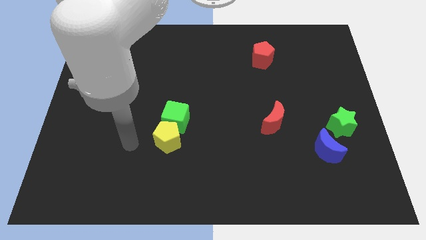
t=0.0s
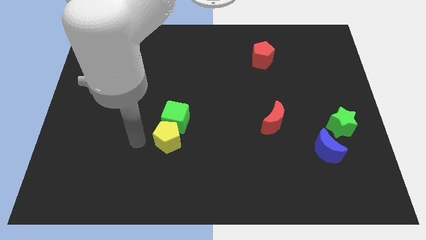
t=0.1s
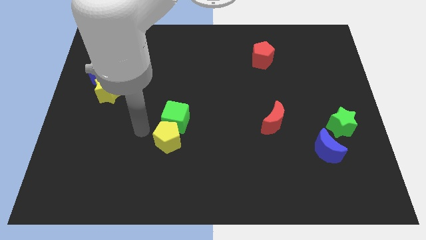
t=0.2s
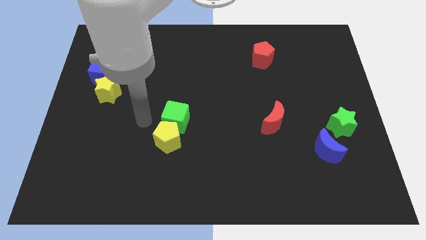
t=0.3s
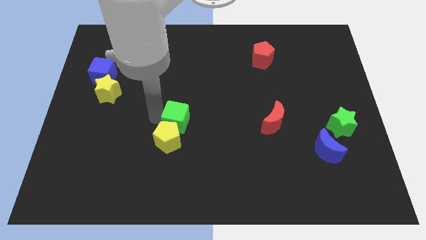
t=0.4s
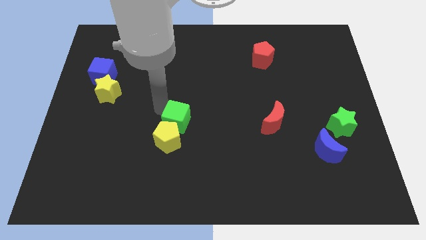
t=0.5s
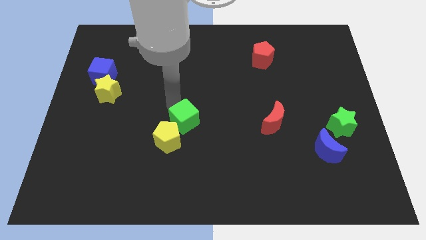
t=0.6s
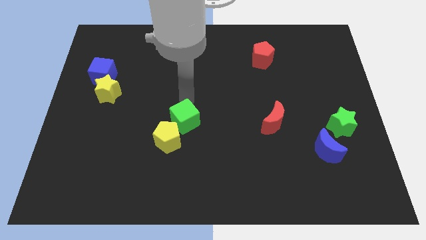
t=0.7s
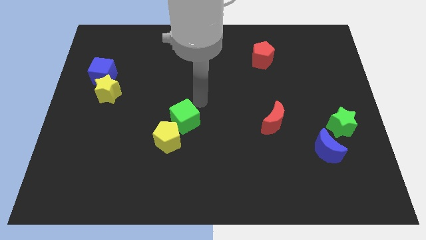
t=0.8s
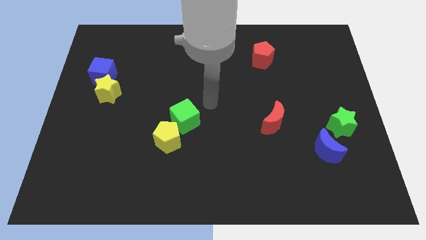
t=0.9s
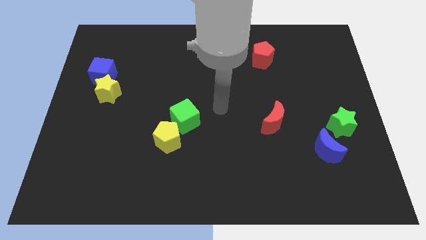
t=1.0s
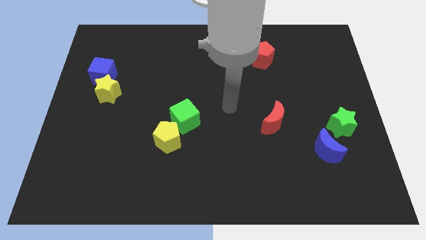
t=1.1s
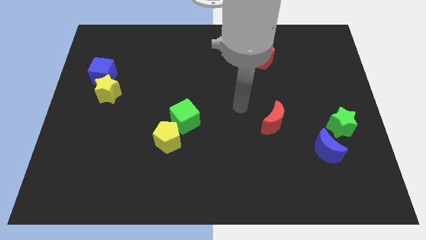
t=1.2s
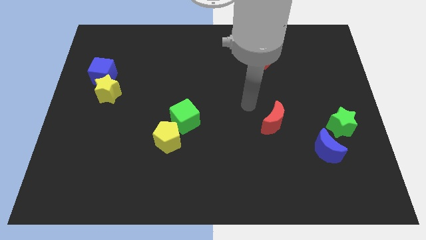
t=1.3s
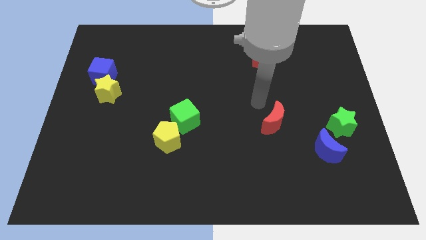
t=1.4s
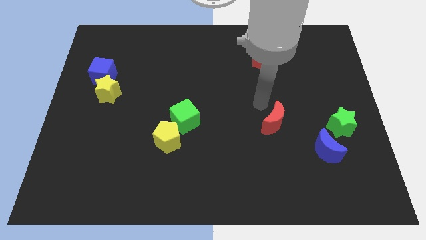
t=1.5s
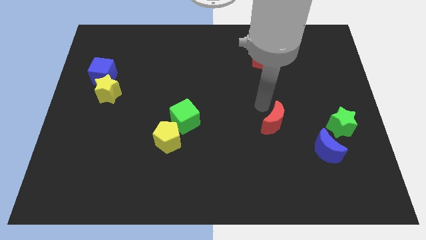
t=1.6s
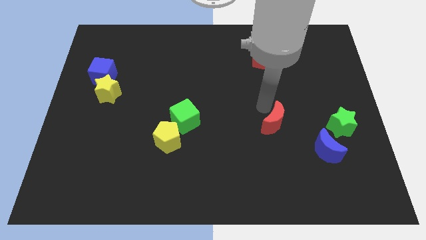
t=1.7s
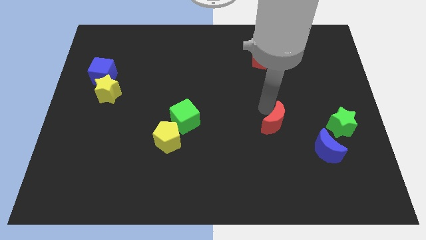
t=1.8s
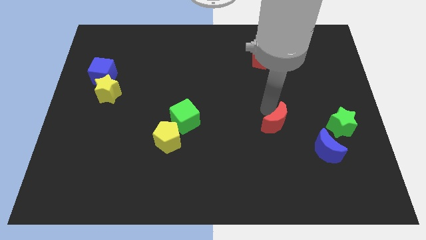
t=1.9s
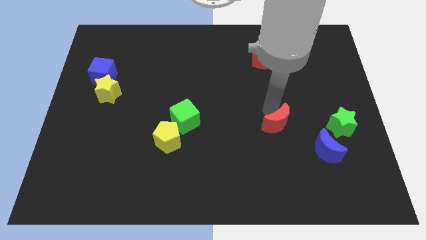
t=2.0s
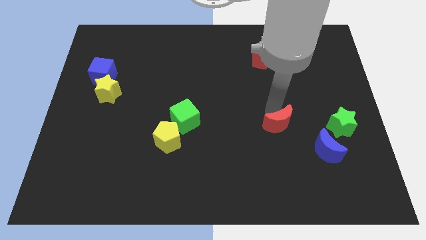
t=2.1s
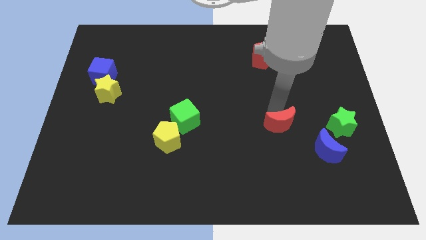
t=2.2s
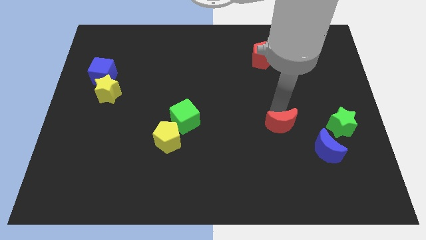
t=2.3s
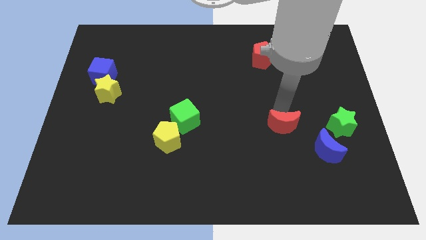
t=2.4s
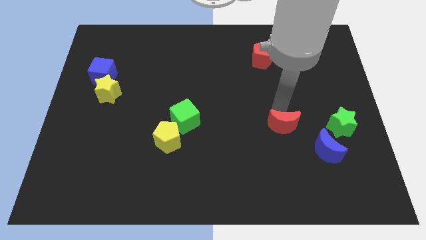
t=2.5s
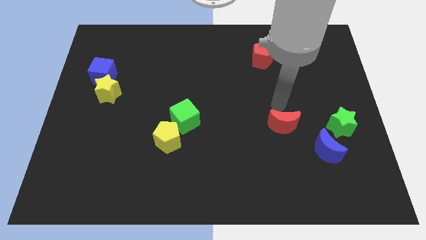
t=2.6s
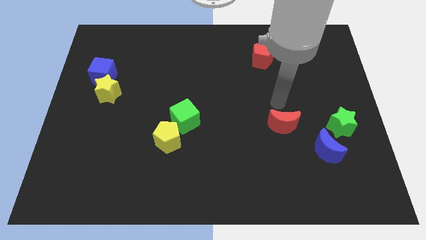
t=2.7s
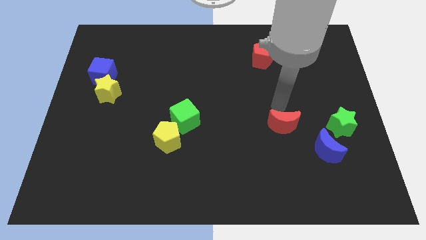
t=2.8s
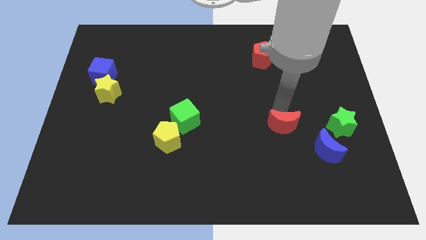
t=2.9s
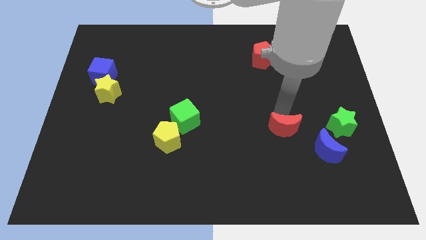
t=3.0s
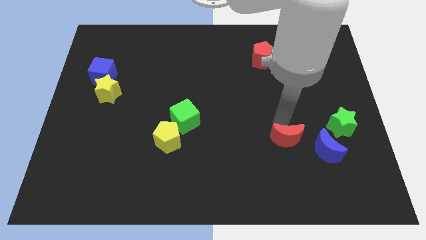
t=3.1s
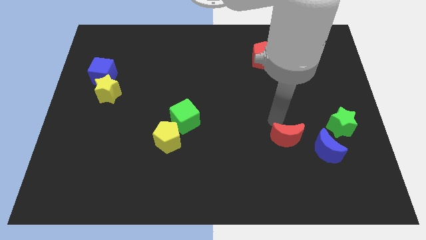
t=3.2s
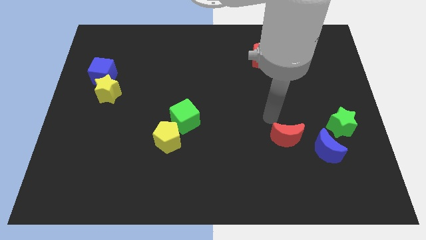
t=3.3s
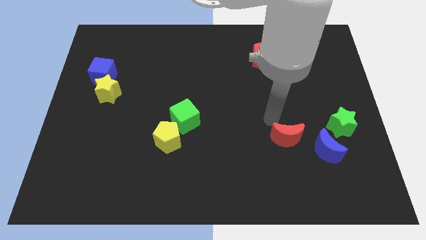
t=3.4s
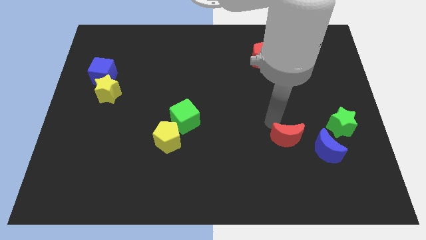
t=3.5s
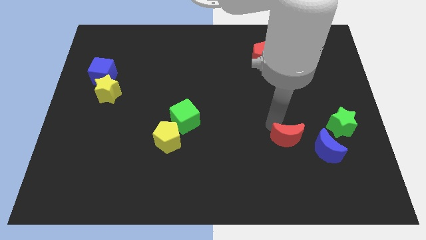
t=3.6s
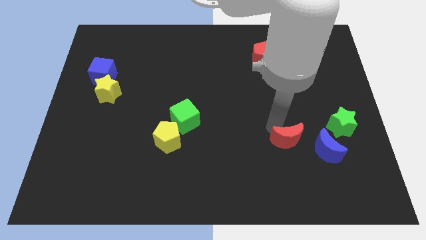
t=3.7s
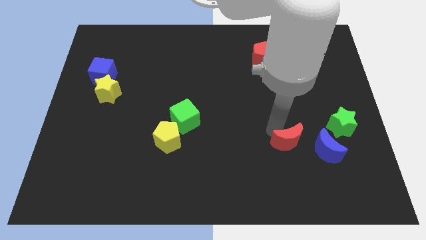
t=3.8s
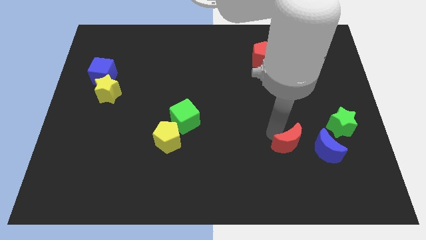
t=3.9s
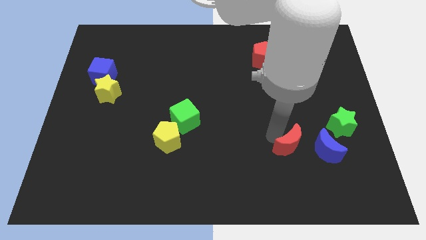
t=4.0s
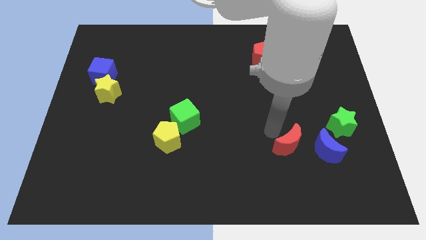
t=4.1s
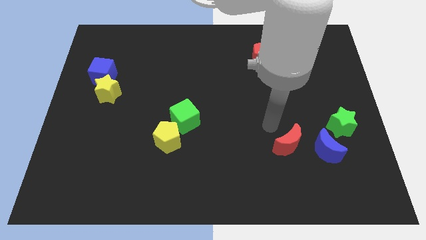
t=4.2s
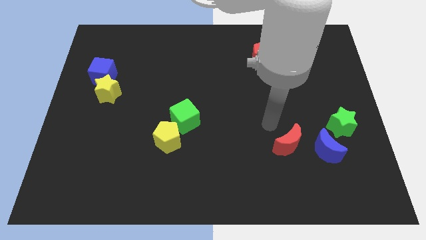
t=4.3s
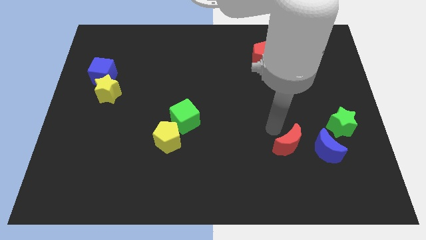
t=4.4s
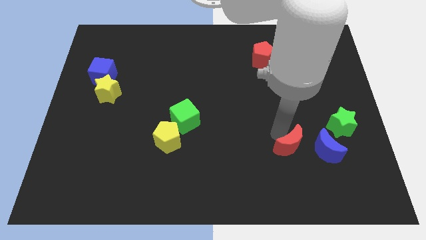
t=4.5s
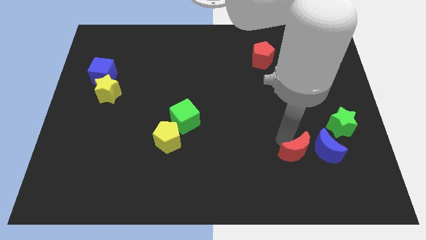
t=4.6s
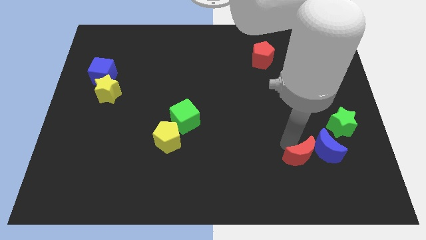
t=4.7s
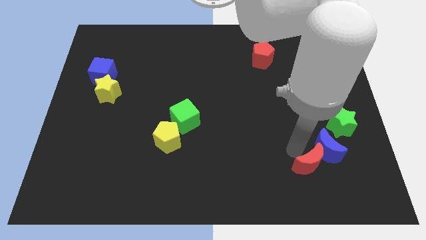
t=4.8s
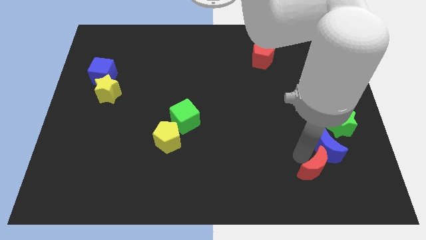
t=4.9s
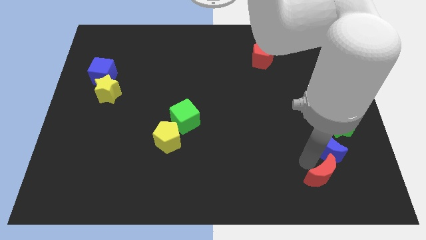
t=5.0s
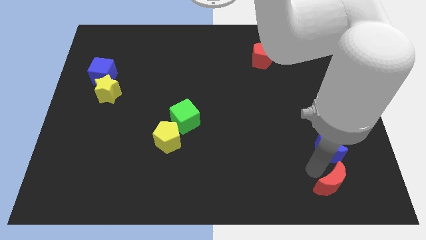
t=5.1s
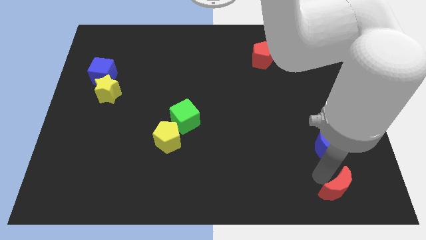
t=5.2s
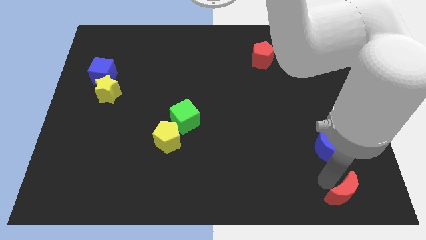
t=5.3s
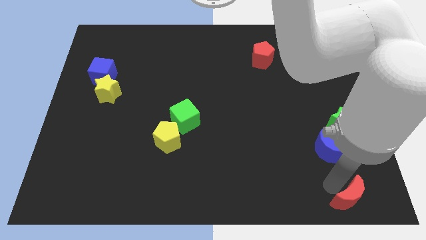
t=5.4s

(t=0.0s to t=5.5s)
slide the red moon to the bottom right

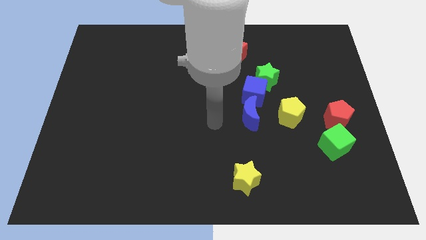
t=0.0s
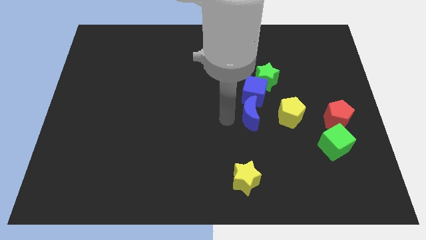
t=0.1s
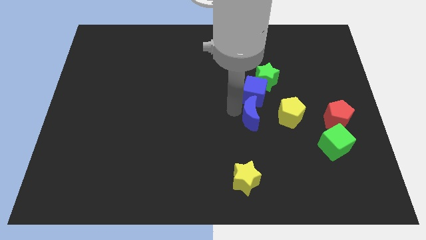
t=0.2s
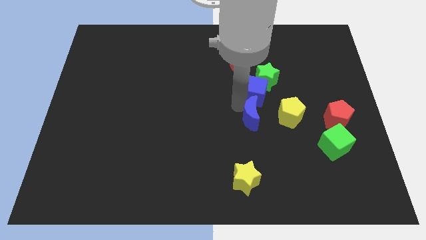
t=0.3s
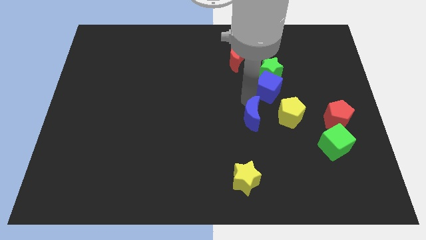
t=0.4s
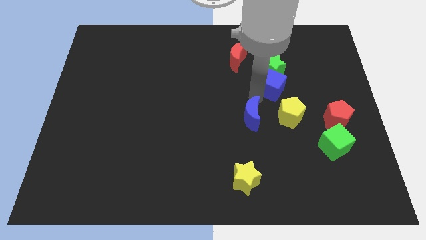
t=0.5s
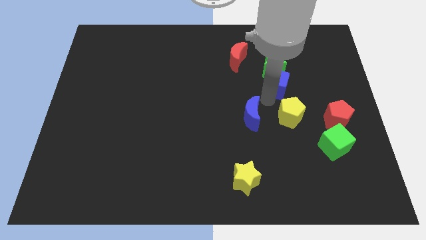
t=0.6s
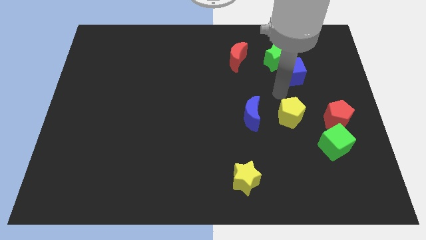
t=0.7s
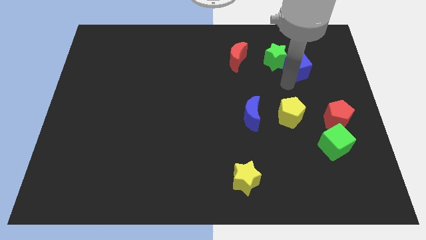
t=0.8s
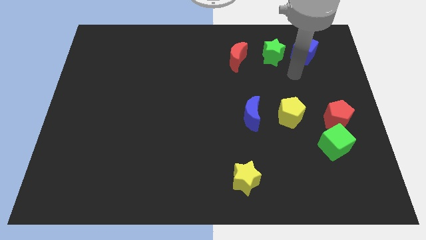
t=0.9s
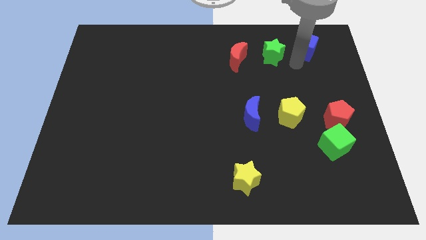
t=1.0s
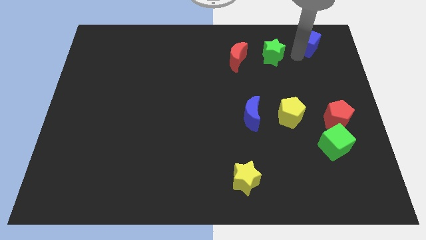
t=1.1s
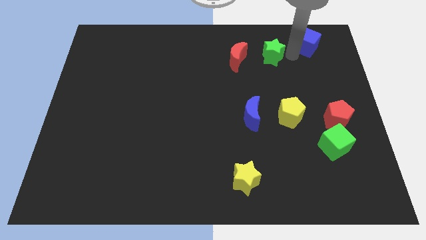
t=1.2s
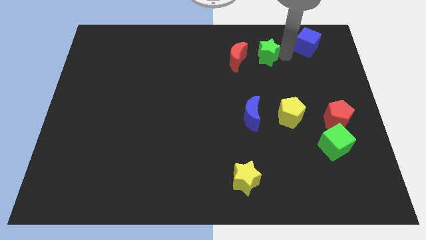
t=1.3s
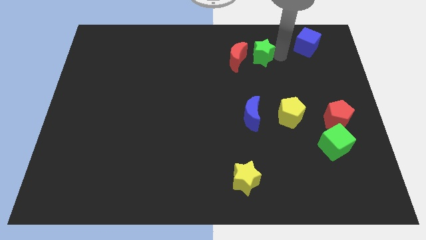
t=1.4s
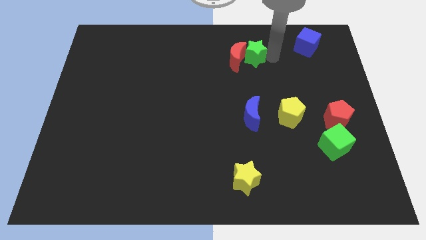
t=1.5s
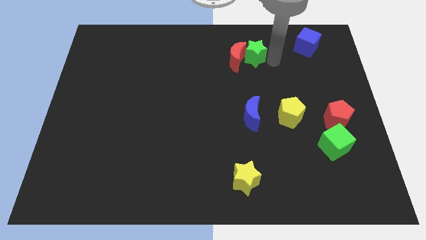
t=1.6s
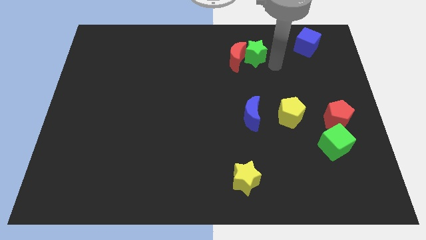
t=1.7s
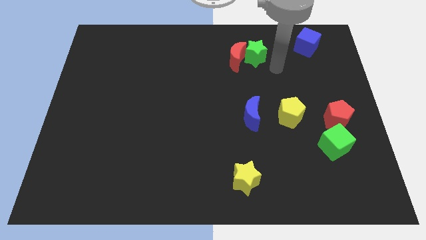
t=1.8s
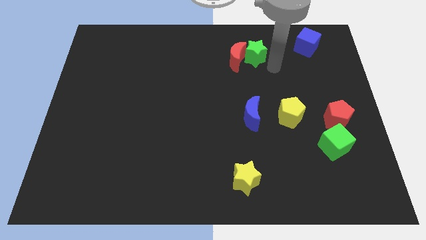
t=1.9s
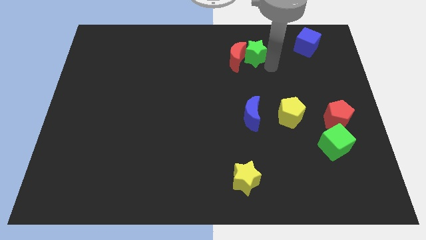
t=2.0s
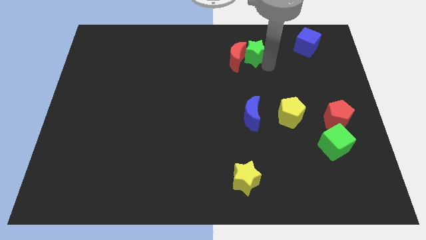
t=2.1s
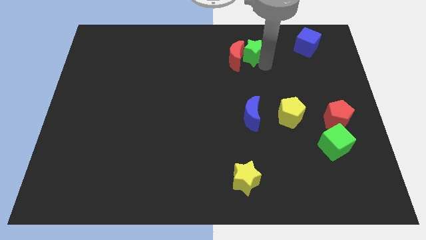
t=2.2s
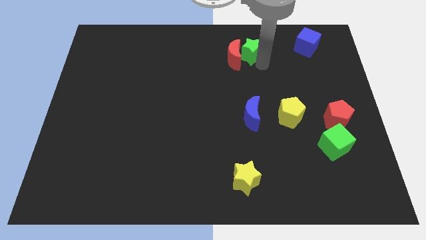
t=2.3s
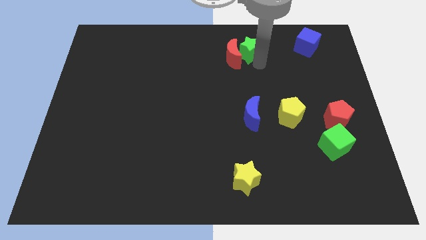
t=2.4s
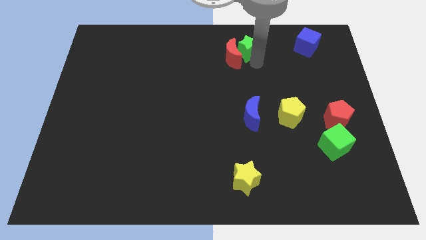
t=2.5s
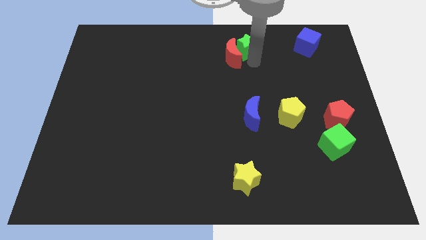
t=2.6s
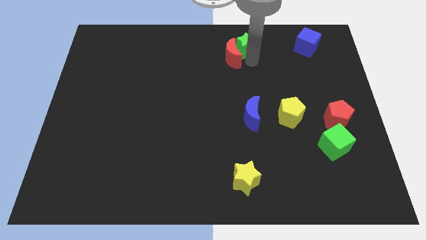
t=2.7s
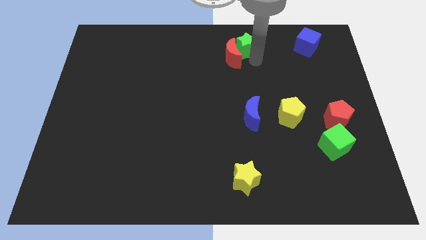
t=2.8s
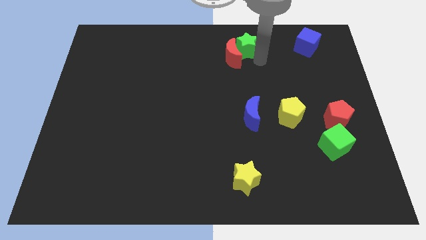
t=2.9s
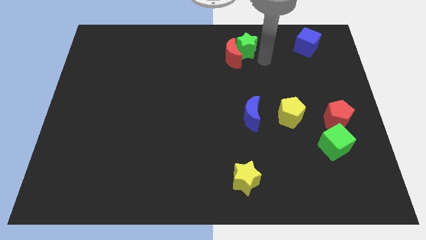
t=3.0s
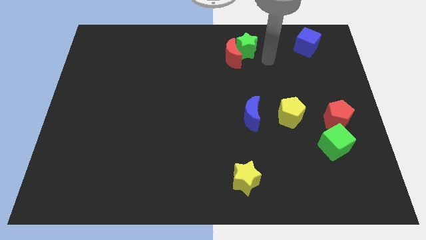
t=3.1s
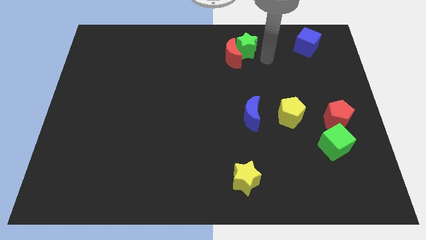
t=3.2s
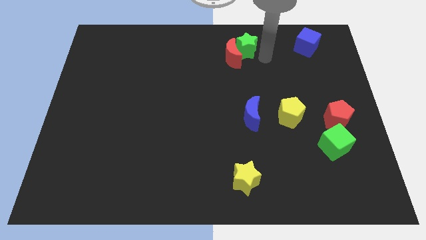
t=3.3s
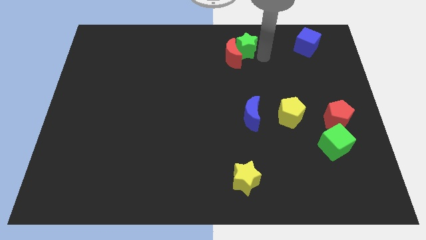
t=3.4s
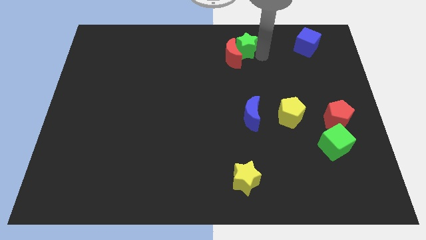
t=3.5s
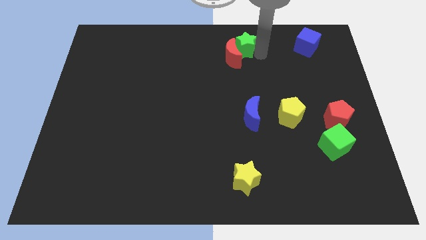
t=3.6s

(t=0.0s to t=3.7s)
push the green star to the towards your base
